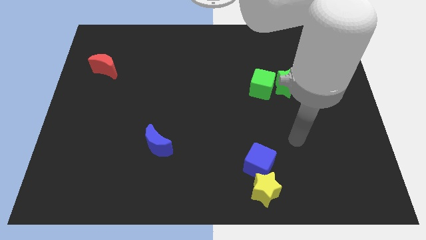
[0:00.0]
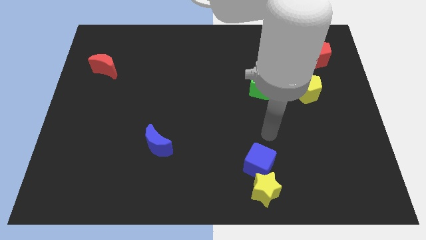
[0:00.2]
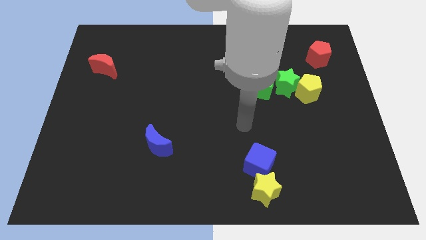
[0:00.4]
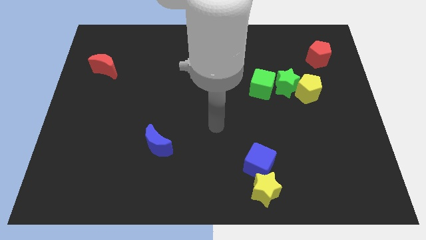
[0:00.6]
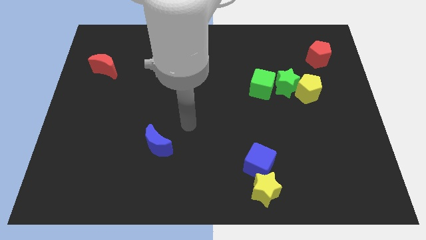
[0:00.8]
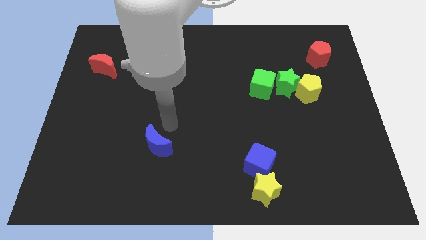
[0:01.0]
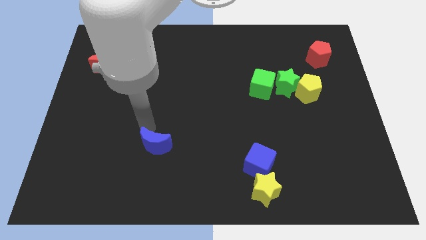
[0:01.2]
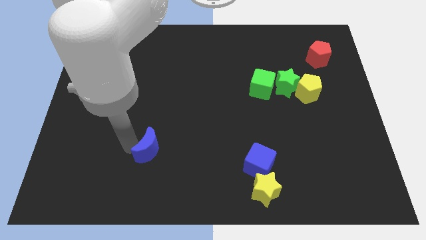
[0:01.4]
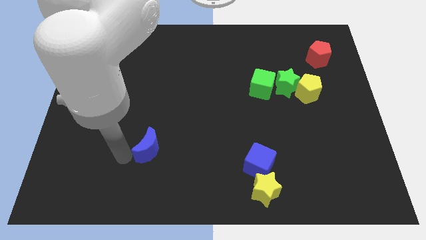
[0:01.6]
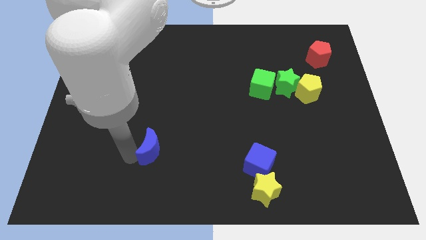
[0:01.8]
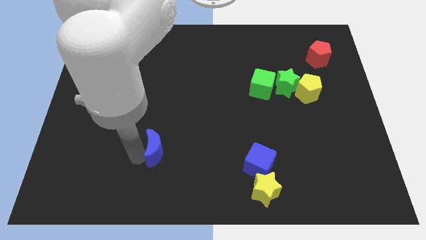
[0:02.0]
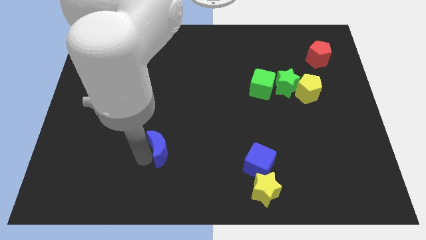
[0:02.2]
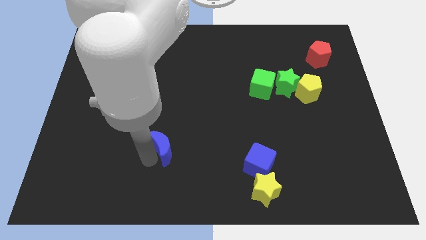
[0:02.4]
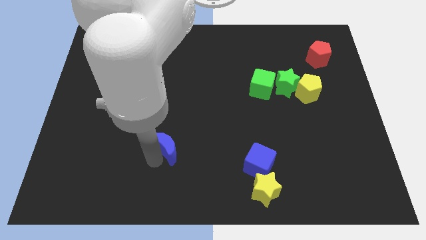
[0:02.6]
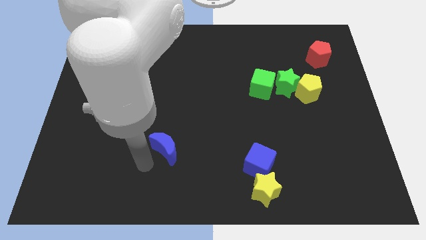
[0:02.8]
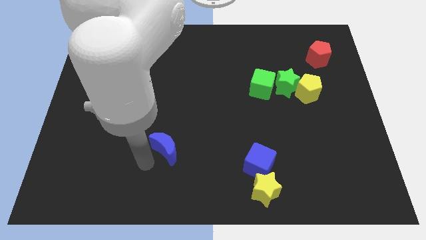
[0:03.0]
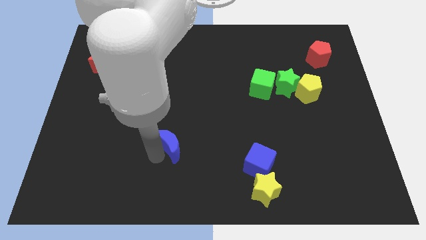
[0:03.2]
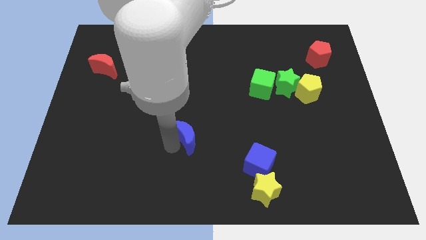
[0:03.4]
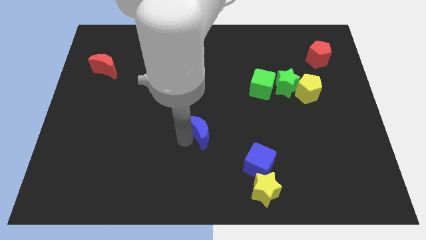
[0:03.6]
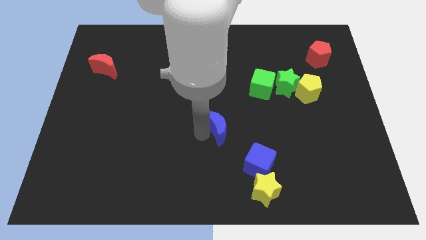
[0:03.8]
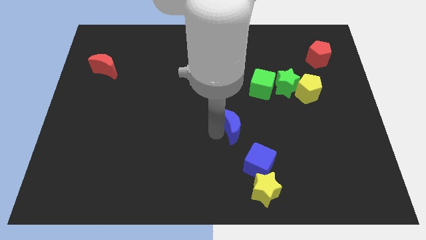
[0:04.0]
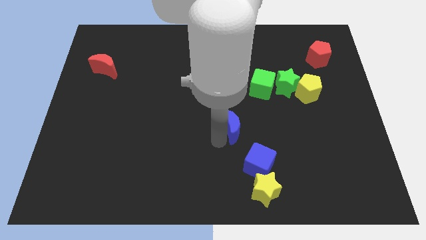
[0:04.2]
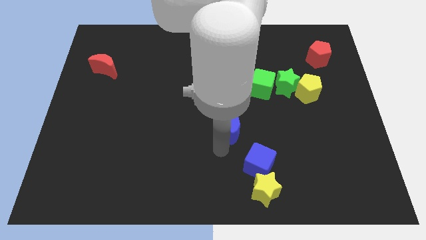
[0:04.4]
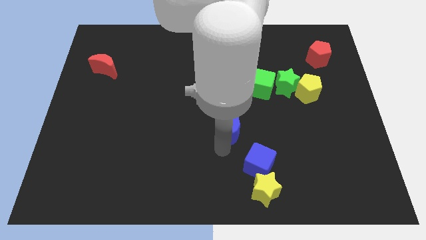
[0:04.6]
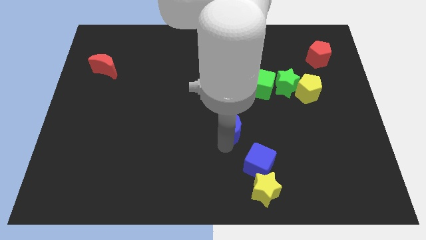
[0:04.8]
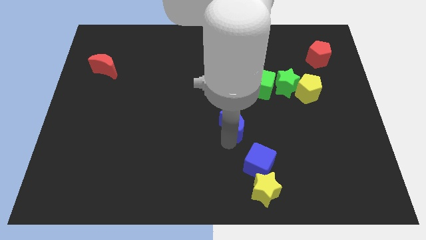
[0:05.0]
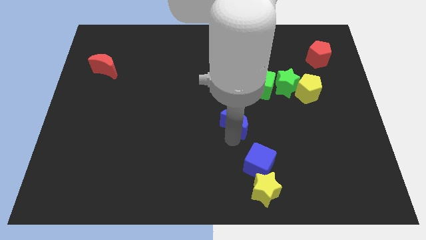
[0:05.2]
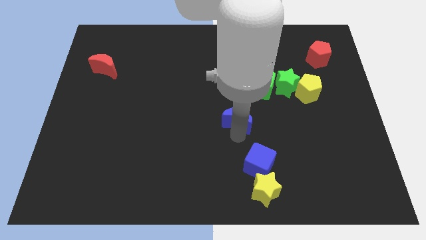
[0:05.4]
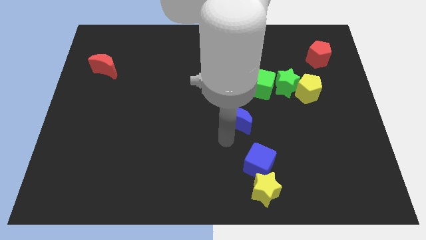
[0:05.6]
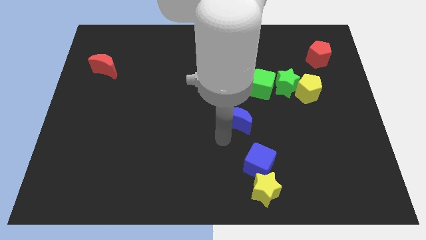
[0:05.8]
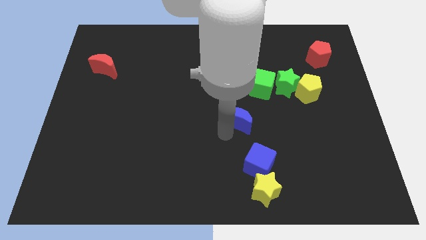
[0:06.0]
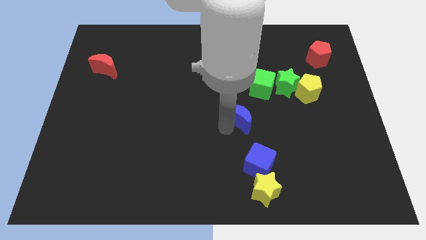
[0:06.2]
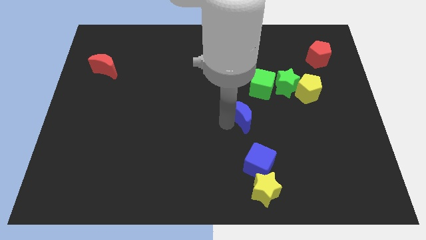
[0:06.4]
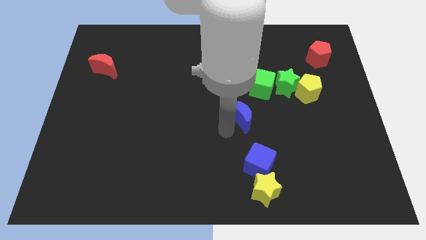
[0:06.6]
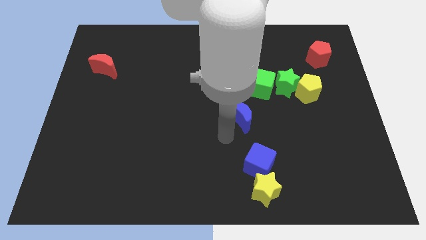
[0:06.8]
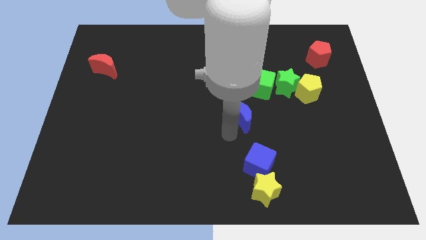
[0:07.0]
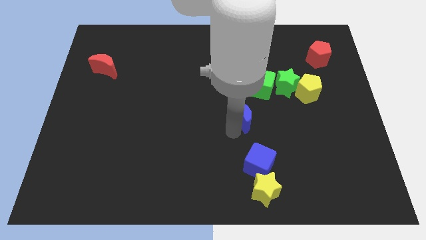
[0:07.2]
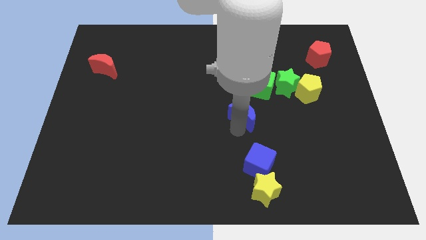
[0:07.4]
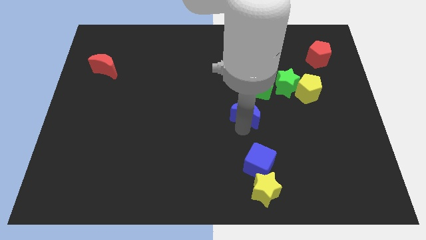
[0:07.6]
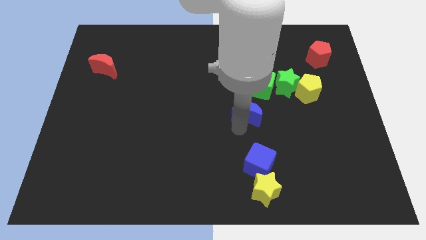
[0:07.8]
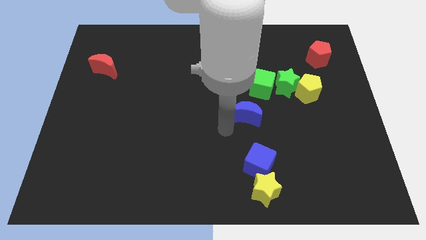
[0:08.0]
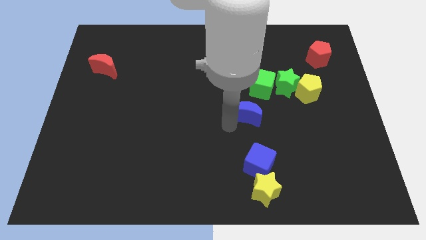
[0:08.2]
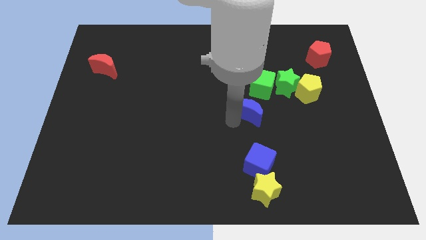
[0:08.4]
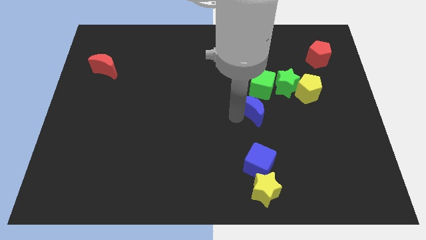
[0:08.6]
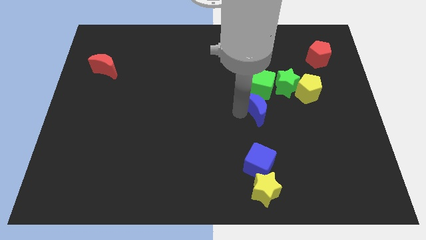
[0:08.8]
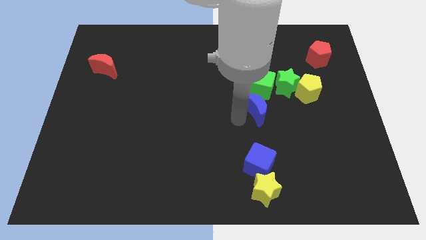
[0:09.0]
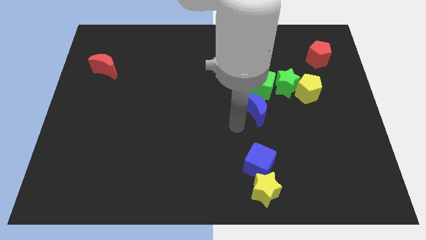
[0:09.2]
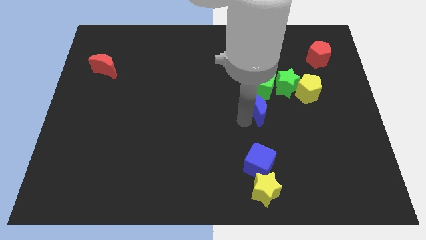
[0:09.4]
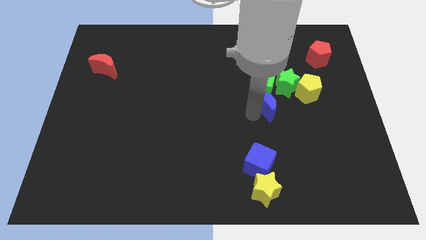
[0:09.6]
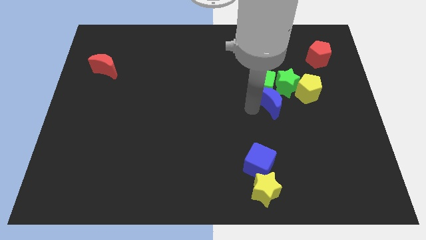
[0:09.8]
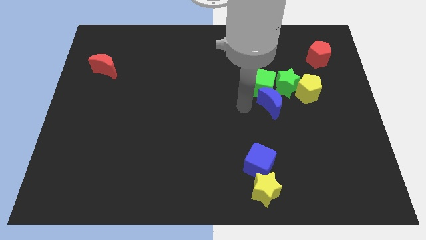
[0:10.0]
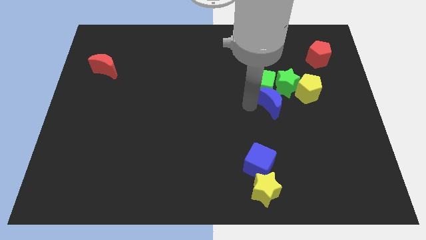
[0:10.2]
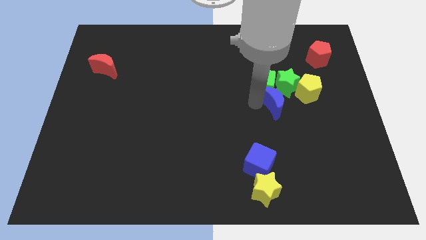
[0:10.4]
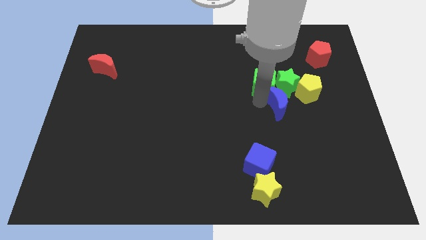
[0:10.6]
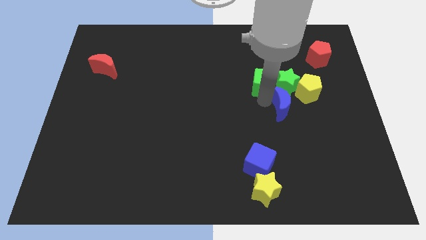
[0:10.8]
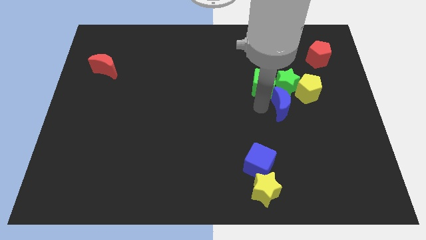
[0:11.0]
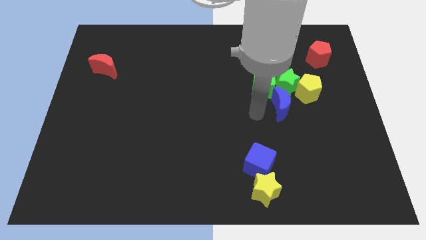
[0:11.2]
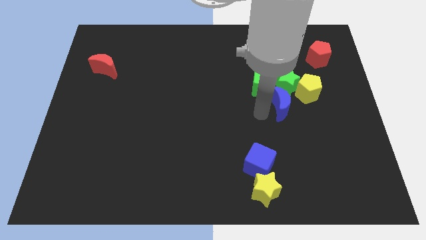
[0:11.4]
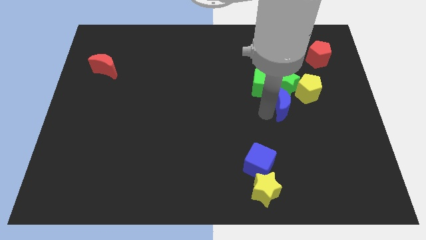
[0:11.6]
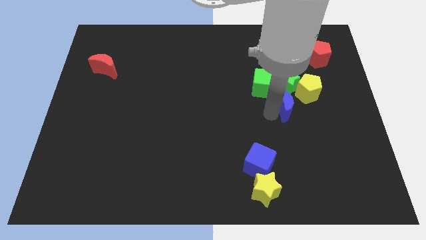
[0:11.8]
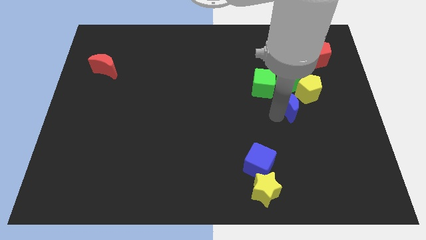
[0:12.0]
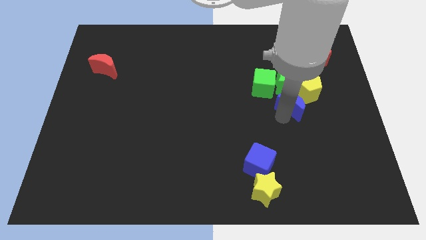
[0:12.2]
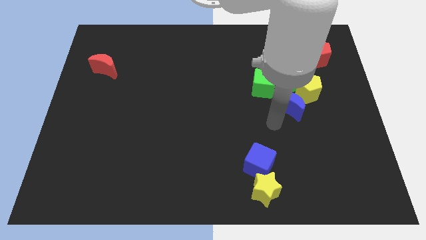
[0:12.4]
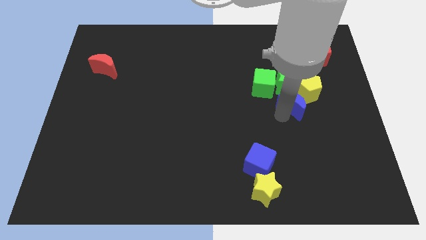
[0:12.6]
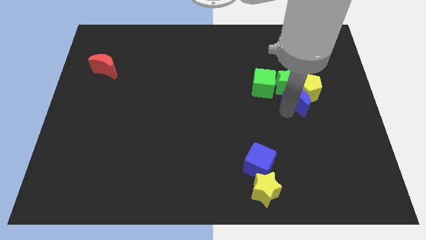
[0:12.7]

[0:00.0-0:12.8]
put the blue moon next to the yellow pentagon
